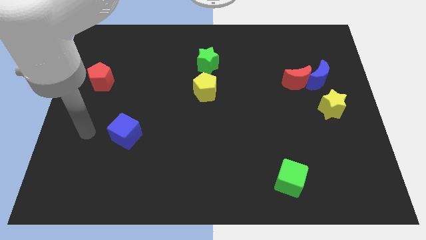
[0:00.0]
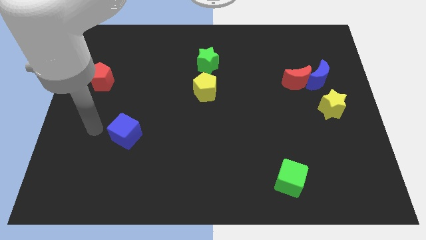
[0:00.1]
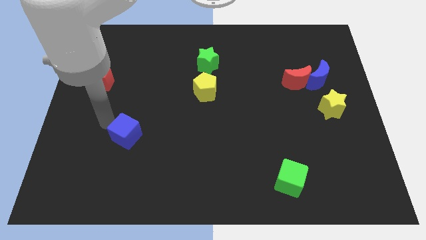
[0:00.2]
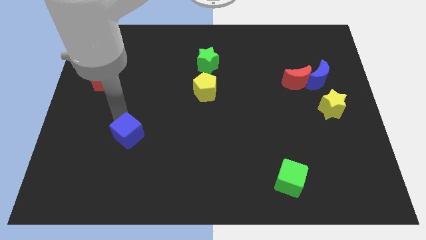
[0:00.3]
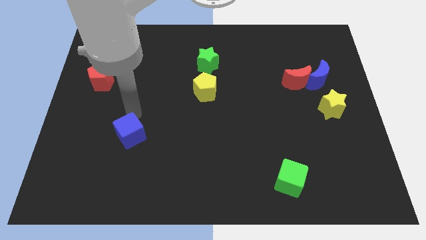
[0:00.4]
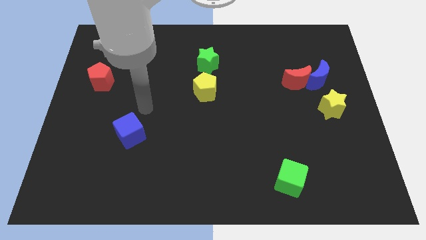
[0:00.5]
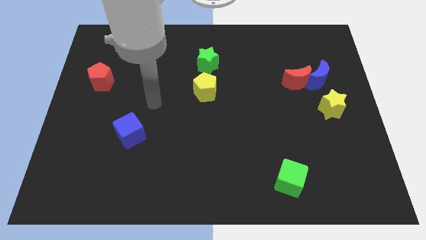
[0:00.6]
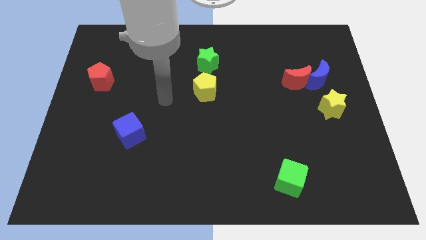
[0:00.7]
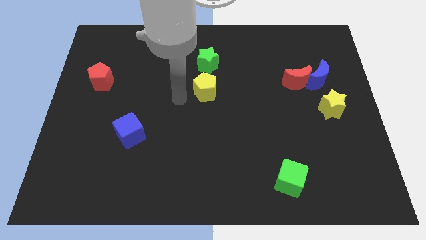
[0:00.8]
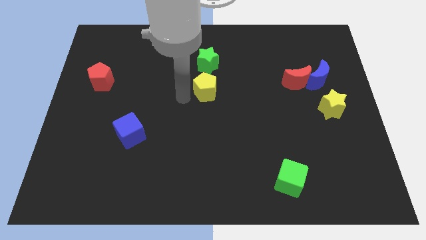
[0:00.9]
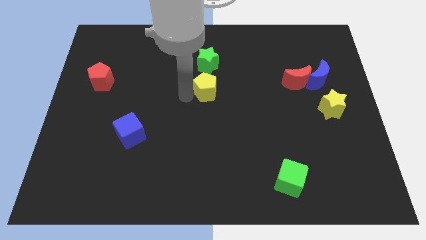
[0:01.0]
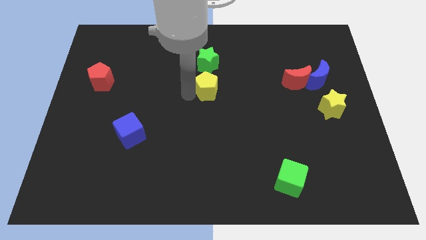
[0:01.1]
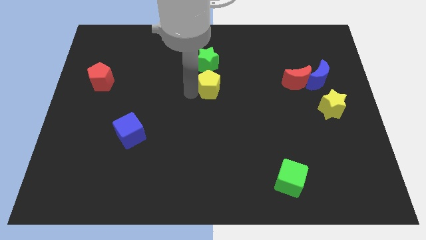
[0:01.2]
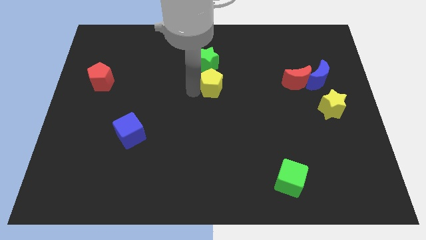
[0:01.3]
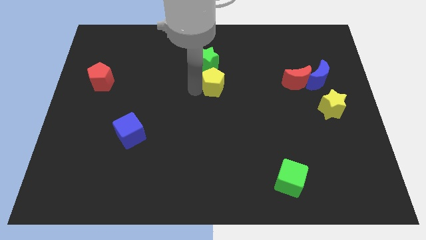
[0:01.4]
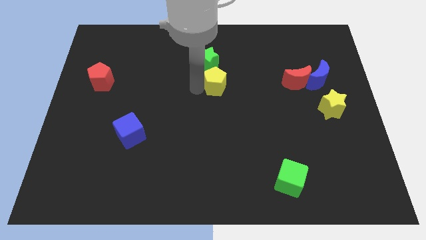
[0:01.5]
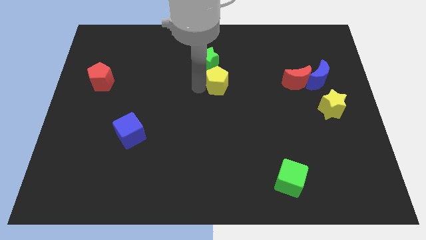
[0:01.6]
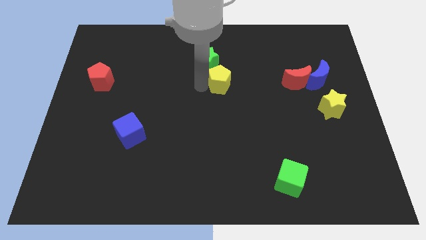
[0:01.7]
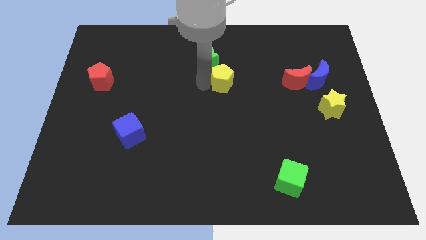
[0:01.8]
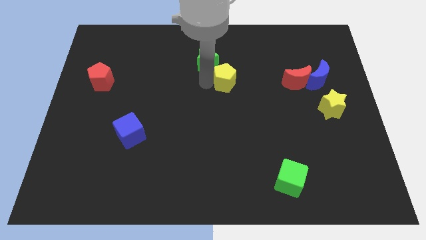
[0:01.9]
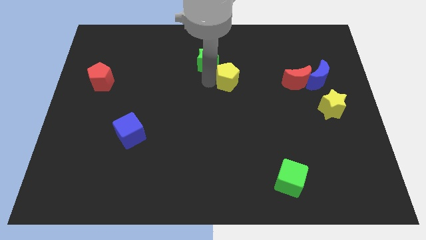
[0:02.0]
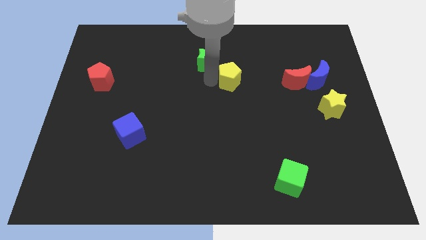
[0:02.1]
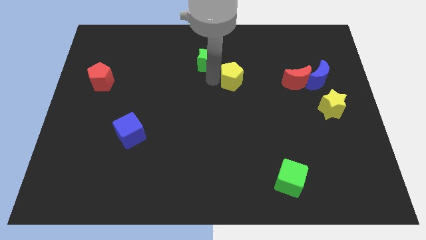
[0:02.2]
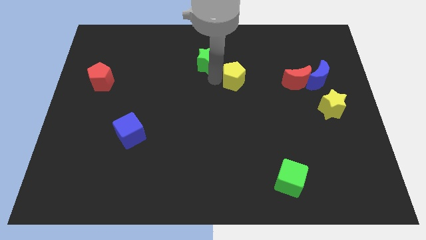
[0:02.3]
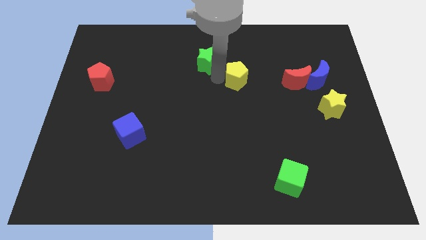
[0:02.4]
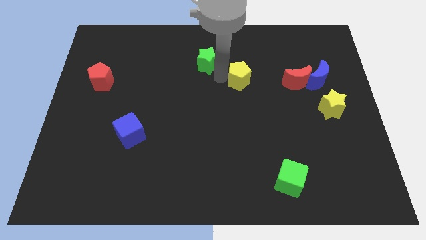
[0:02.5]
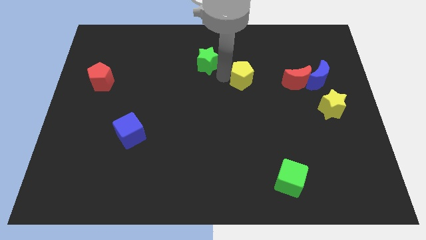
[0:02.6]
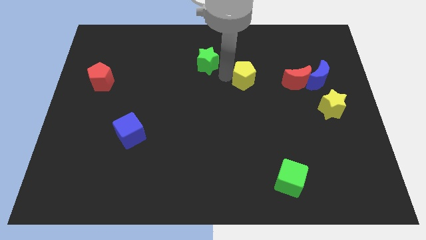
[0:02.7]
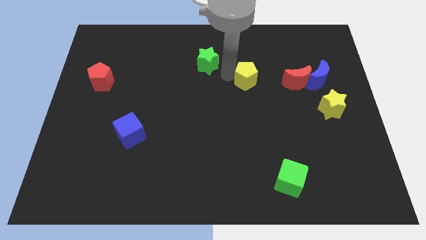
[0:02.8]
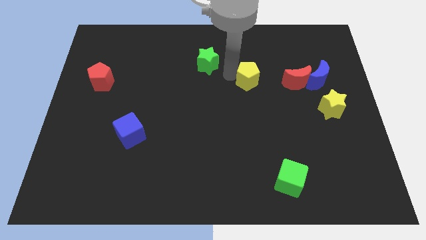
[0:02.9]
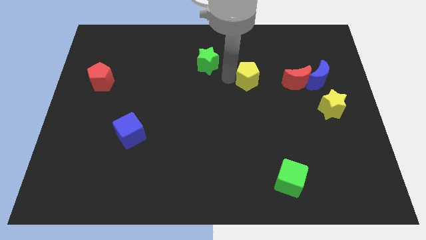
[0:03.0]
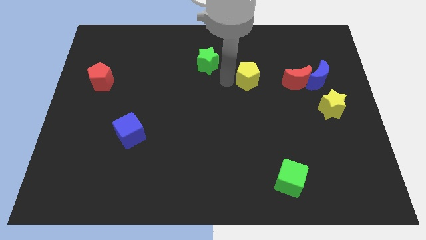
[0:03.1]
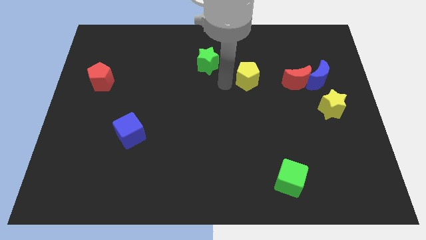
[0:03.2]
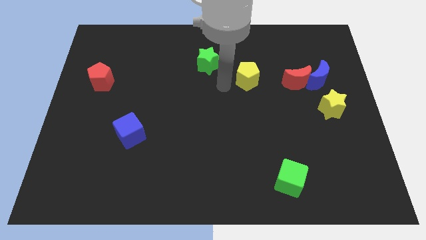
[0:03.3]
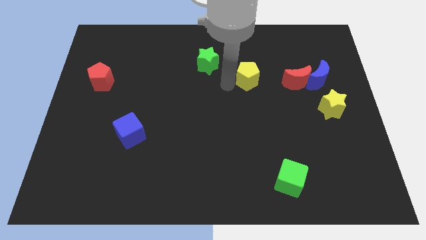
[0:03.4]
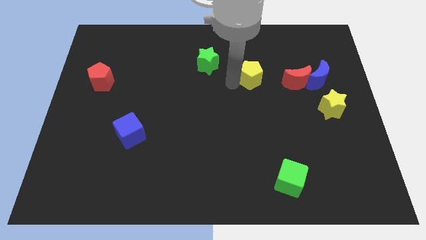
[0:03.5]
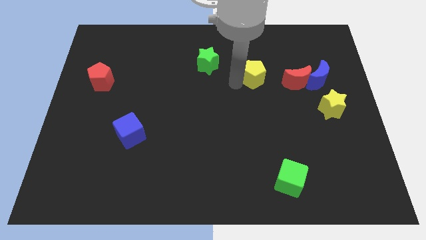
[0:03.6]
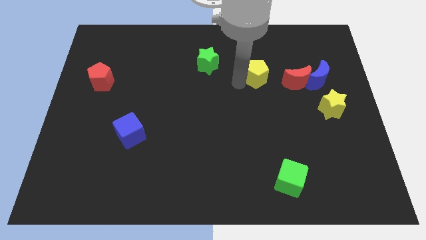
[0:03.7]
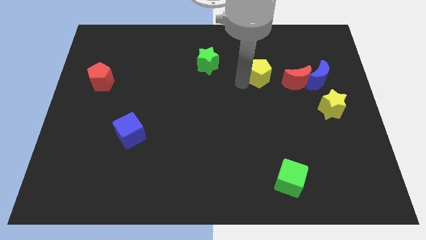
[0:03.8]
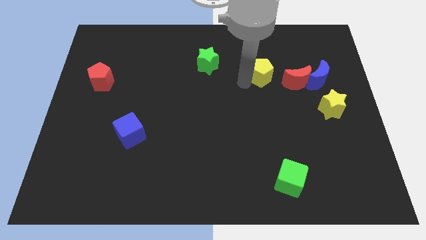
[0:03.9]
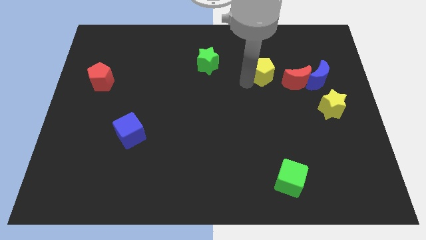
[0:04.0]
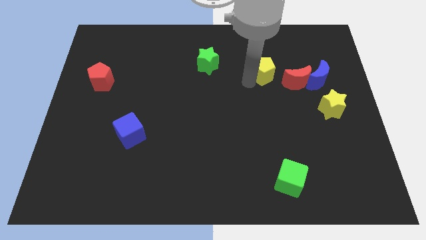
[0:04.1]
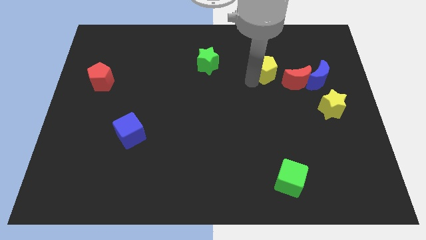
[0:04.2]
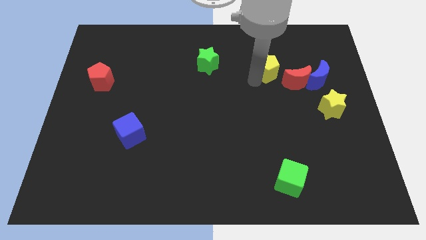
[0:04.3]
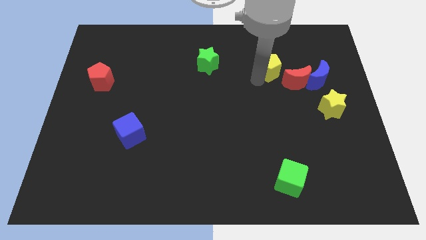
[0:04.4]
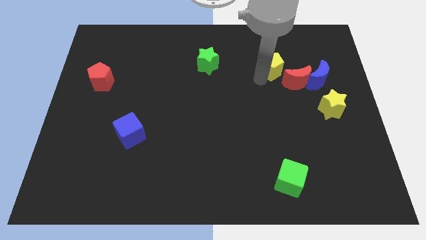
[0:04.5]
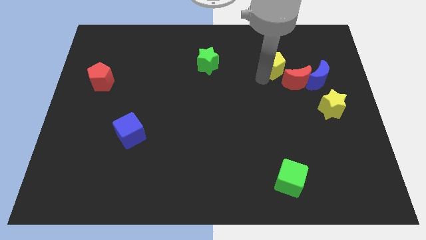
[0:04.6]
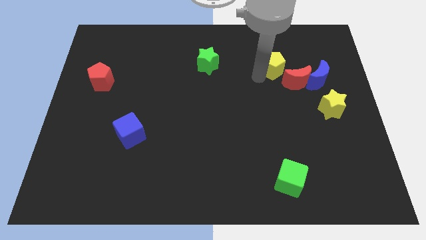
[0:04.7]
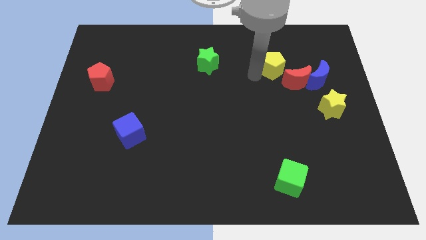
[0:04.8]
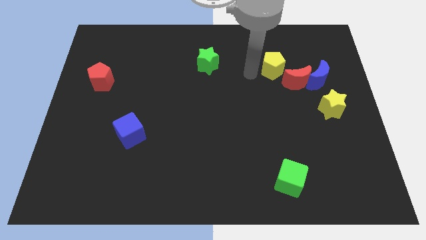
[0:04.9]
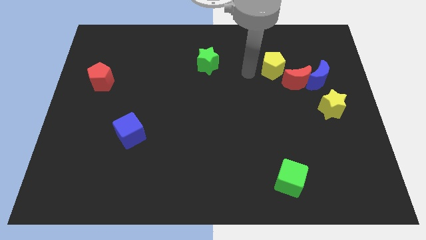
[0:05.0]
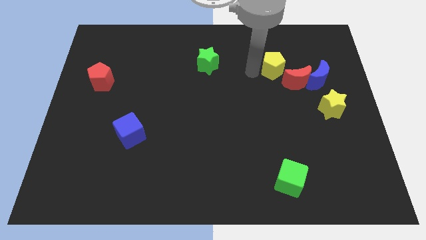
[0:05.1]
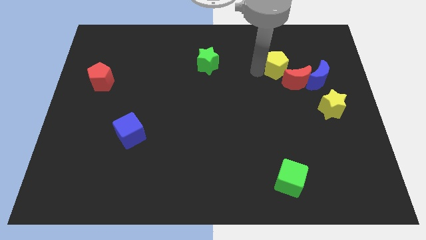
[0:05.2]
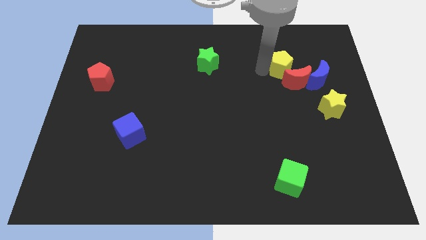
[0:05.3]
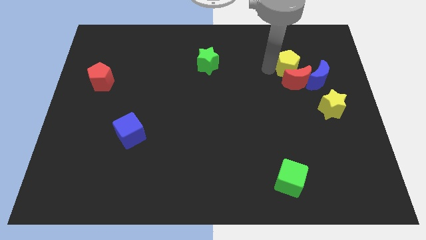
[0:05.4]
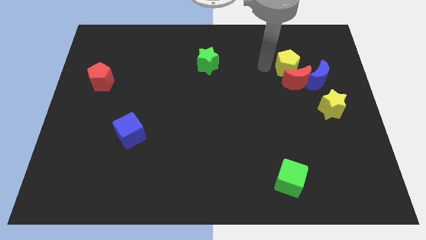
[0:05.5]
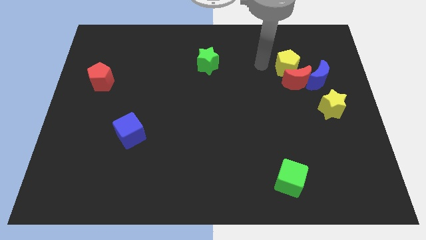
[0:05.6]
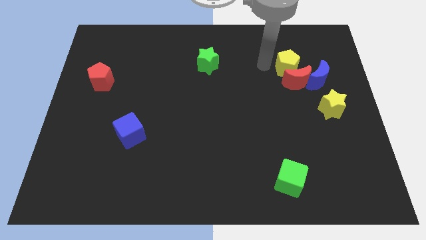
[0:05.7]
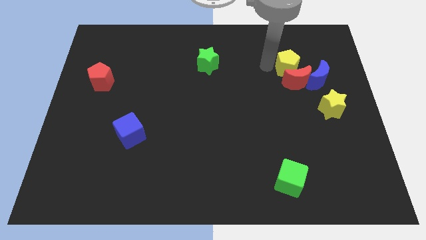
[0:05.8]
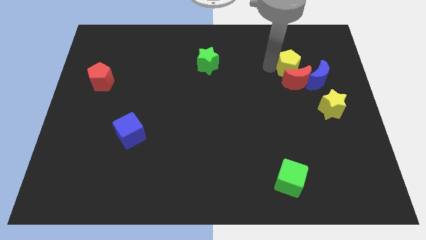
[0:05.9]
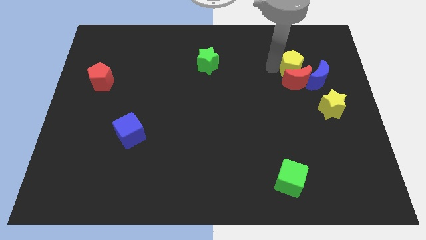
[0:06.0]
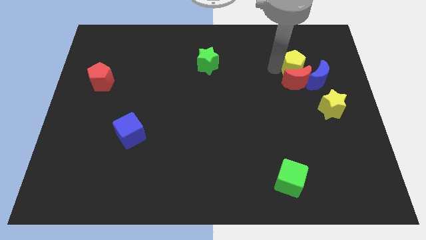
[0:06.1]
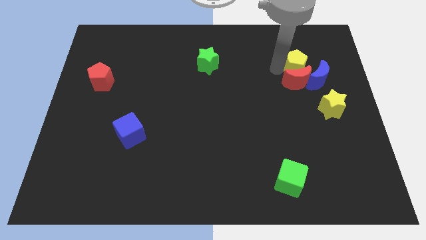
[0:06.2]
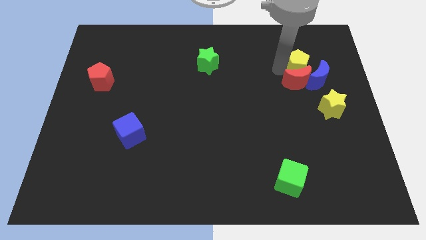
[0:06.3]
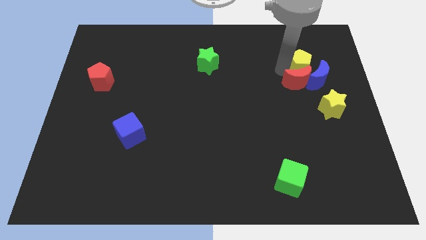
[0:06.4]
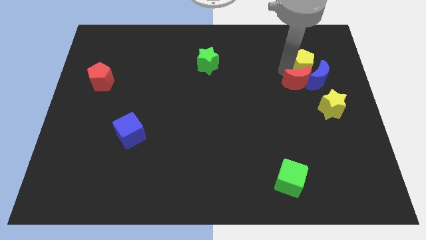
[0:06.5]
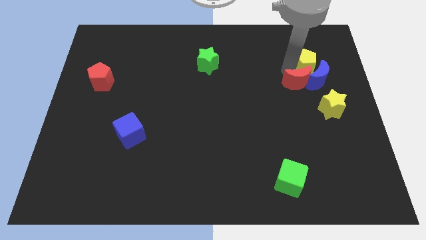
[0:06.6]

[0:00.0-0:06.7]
put the yellow pentagon to the top side of the yellow star
